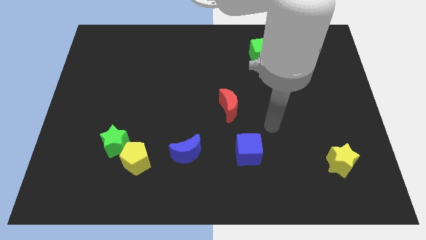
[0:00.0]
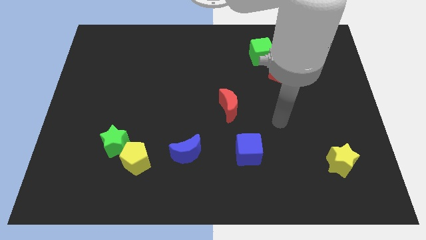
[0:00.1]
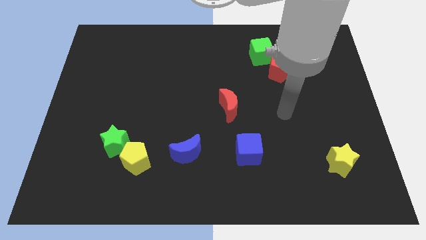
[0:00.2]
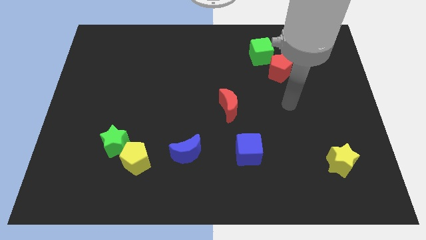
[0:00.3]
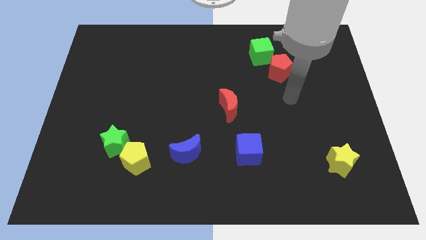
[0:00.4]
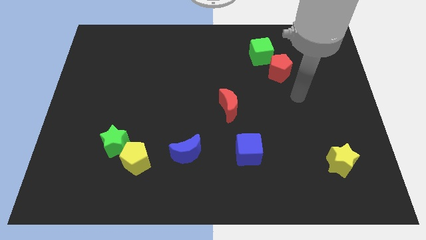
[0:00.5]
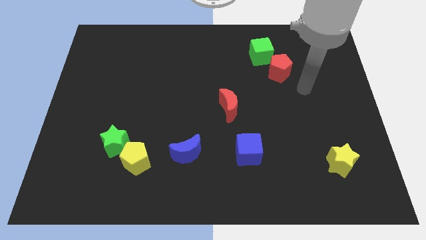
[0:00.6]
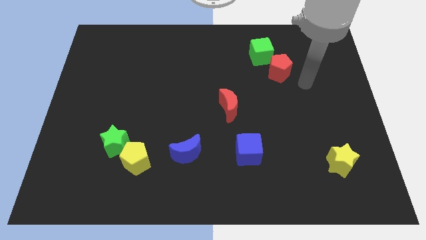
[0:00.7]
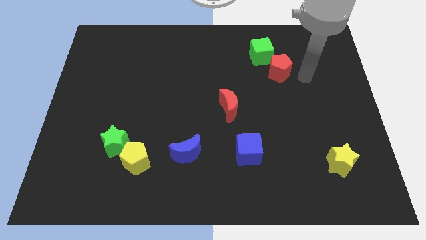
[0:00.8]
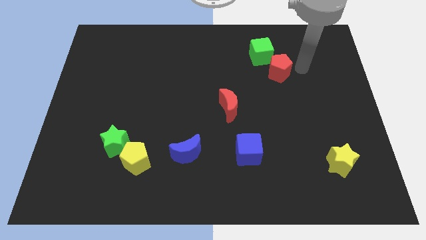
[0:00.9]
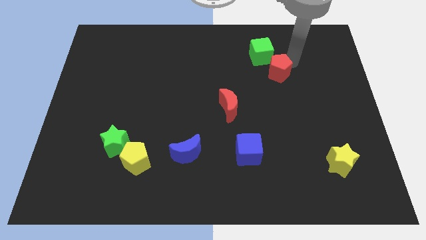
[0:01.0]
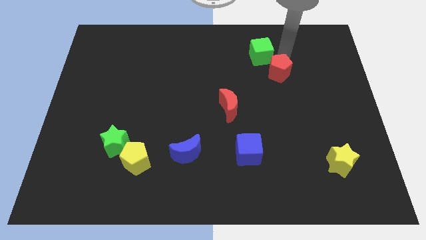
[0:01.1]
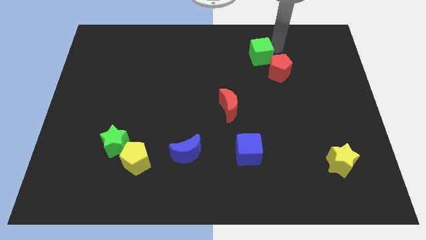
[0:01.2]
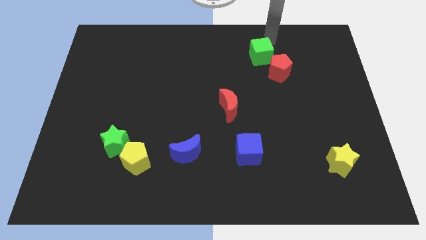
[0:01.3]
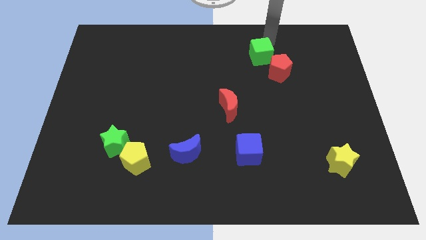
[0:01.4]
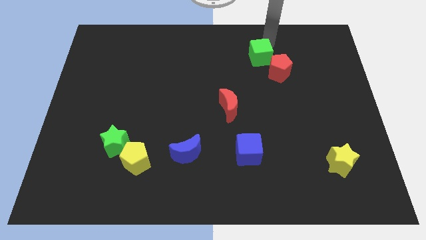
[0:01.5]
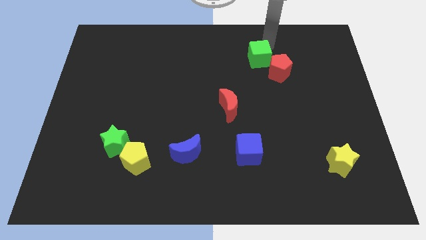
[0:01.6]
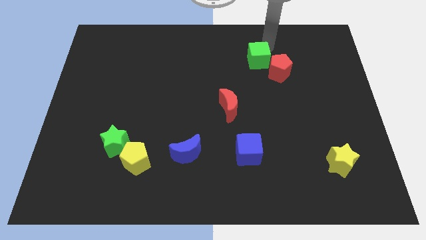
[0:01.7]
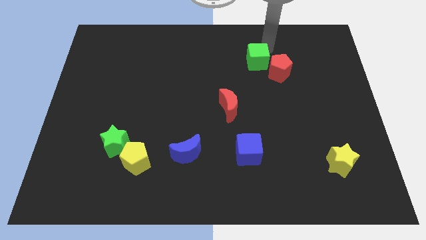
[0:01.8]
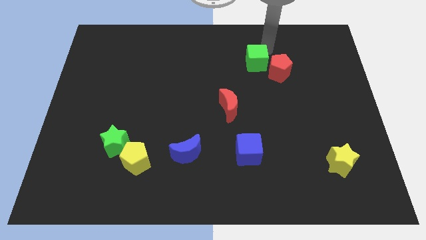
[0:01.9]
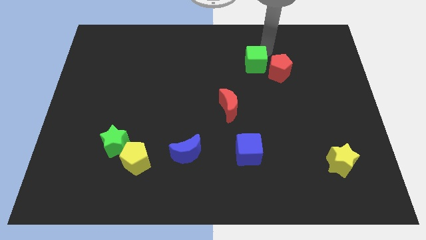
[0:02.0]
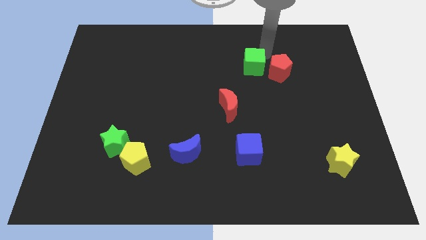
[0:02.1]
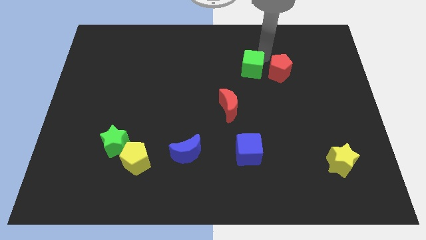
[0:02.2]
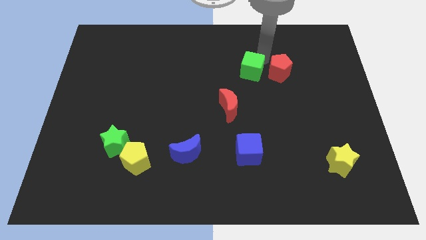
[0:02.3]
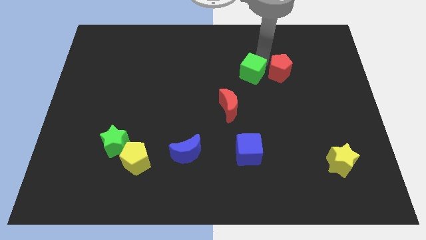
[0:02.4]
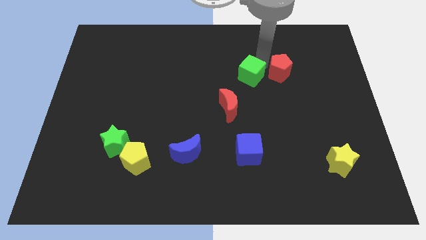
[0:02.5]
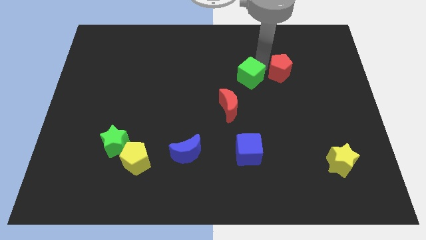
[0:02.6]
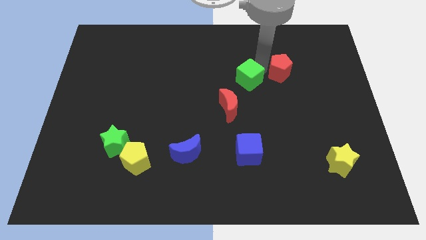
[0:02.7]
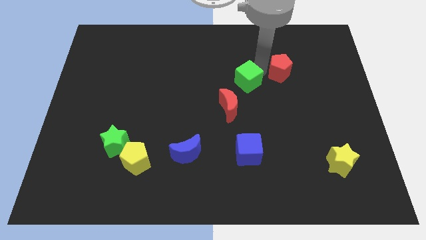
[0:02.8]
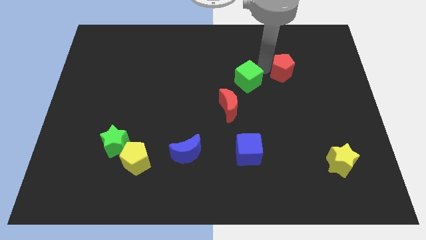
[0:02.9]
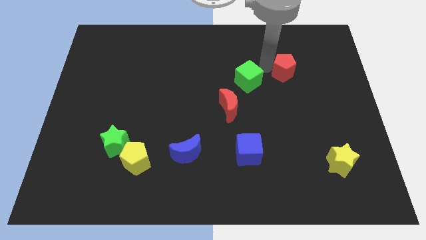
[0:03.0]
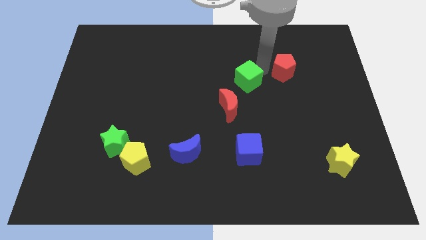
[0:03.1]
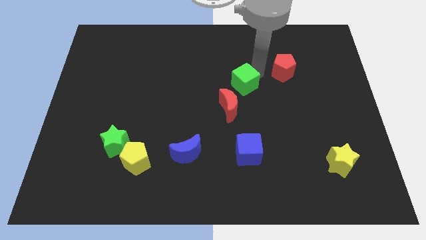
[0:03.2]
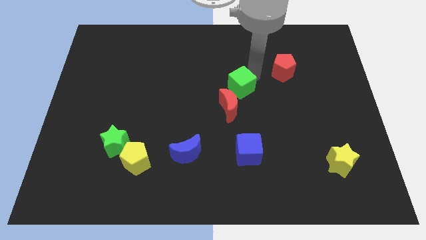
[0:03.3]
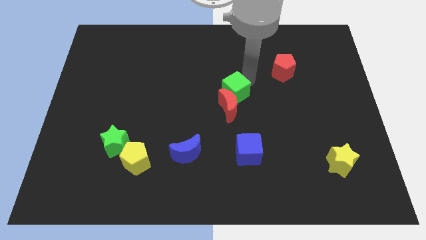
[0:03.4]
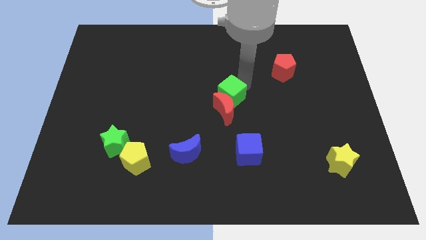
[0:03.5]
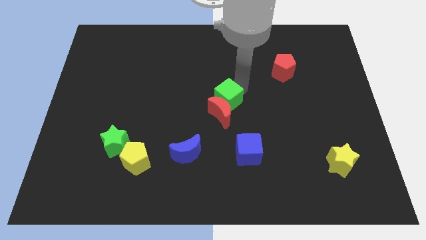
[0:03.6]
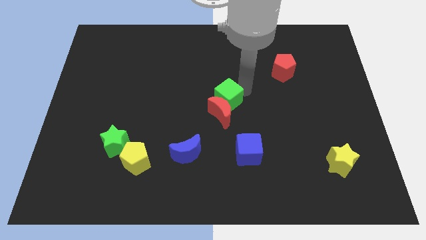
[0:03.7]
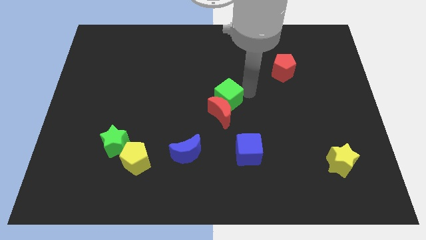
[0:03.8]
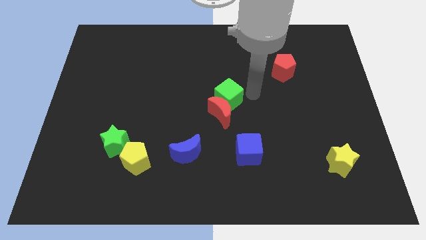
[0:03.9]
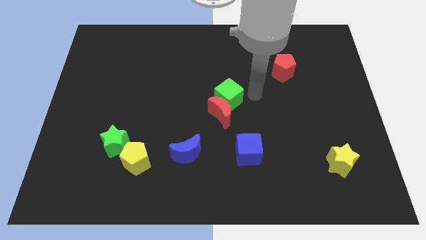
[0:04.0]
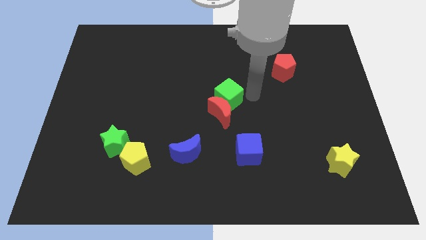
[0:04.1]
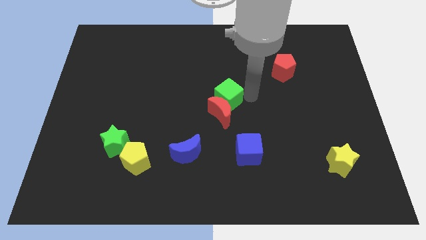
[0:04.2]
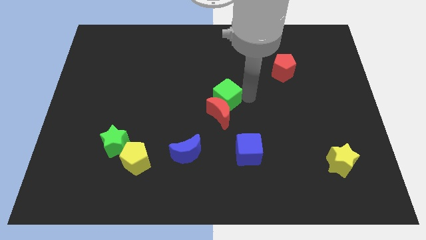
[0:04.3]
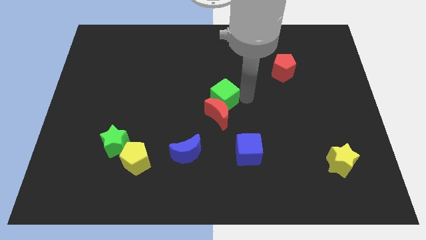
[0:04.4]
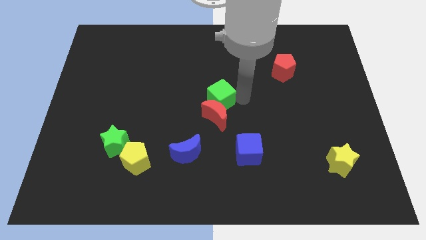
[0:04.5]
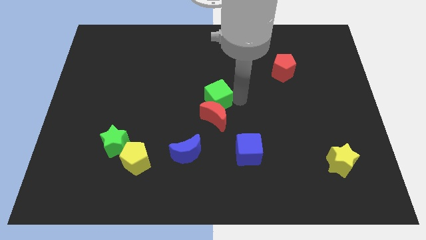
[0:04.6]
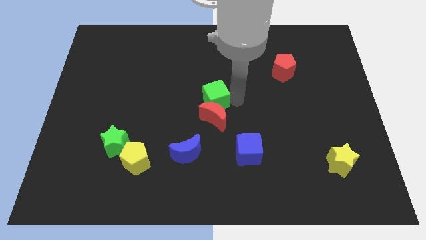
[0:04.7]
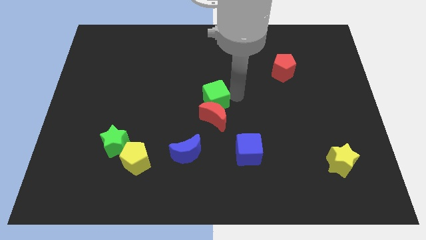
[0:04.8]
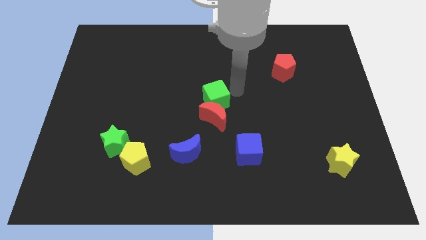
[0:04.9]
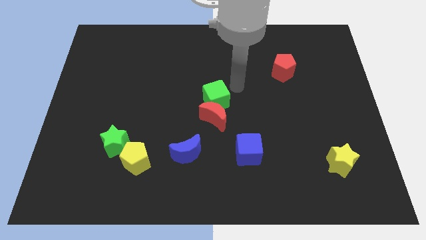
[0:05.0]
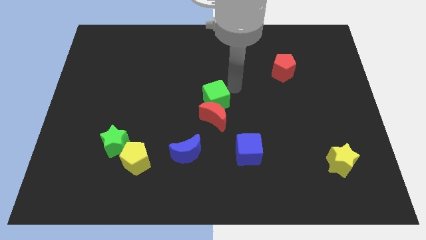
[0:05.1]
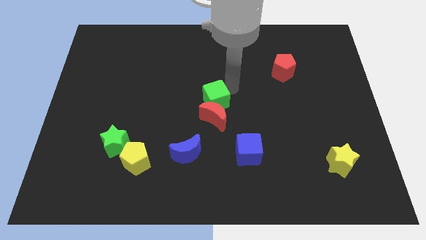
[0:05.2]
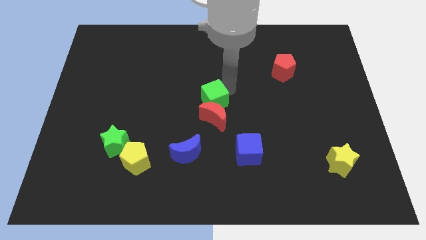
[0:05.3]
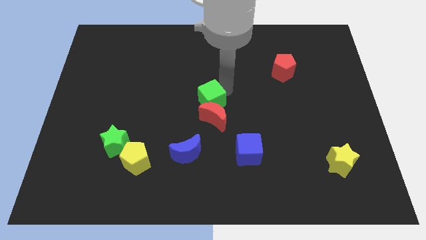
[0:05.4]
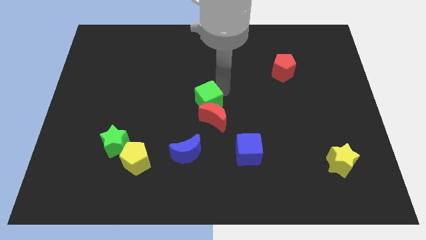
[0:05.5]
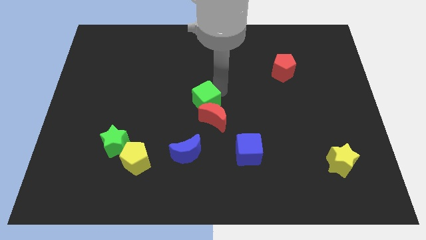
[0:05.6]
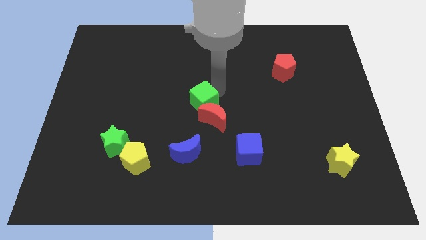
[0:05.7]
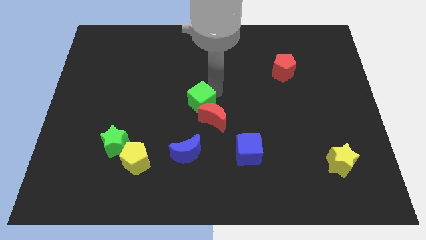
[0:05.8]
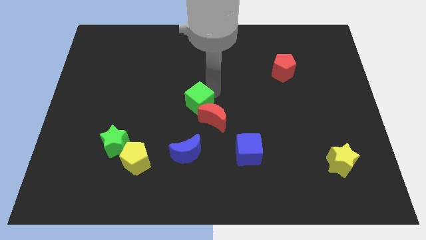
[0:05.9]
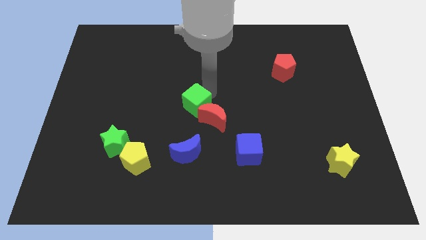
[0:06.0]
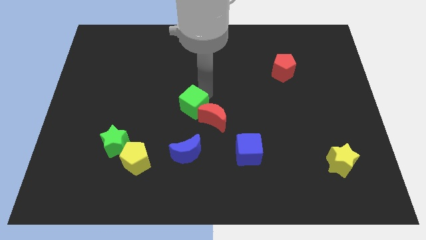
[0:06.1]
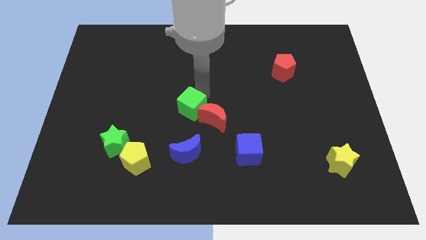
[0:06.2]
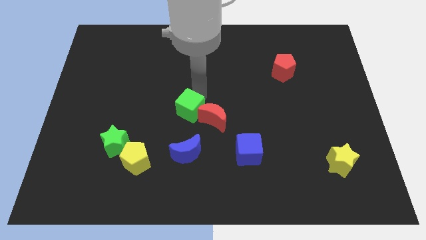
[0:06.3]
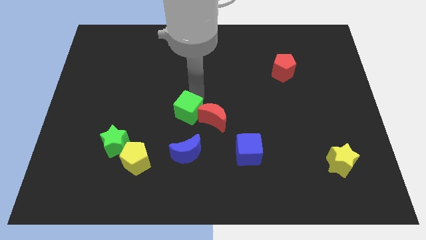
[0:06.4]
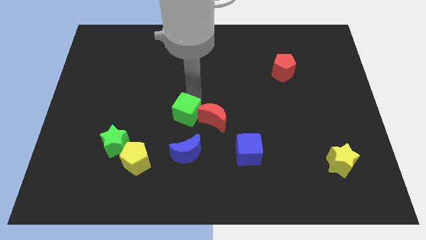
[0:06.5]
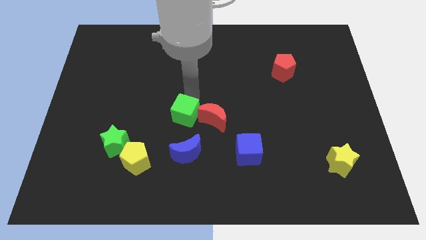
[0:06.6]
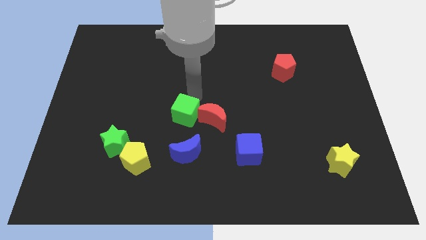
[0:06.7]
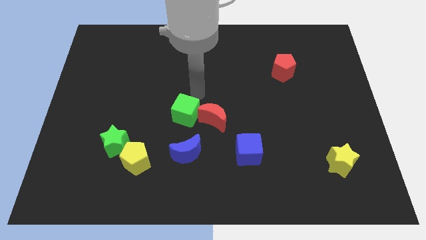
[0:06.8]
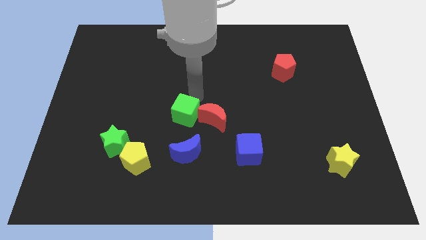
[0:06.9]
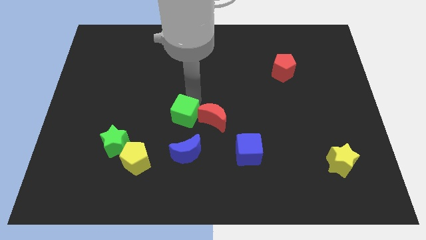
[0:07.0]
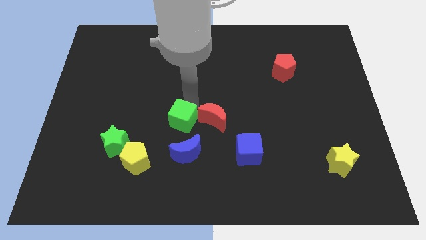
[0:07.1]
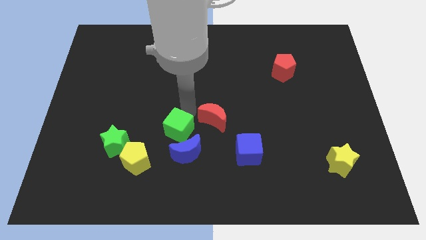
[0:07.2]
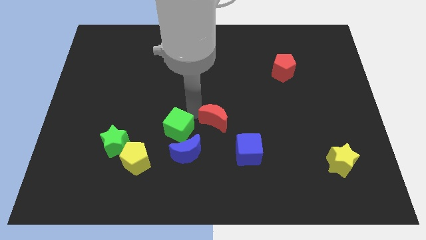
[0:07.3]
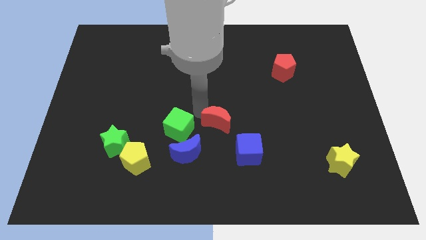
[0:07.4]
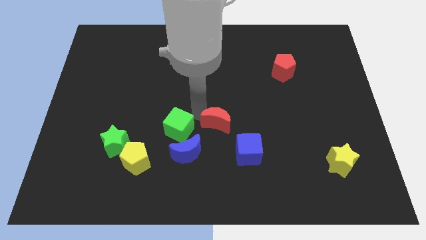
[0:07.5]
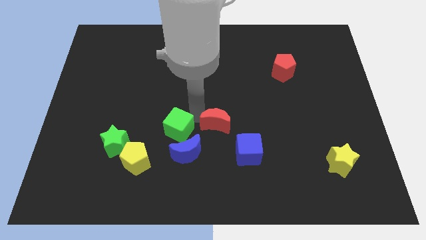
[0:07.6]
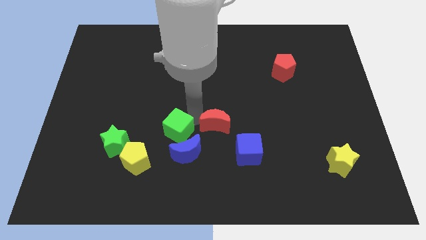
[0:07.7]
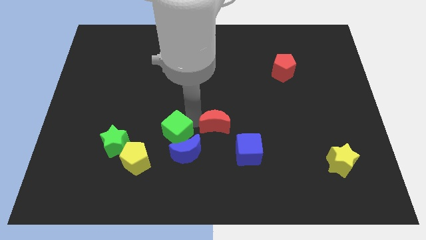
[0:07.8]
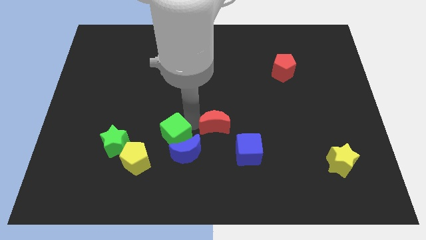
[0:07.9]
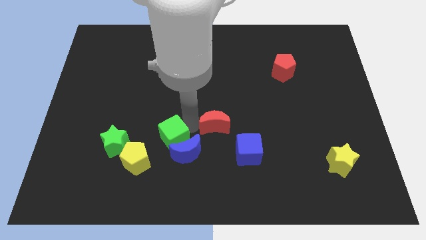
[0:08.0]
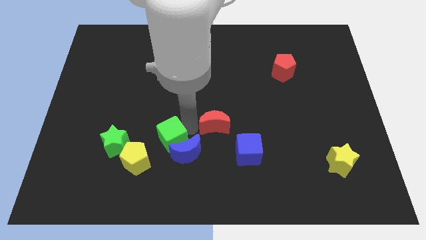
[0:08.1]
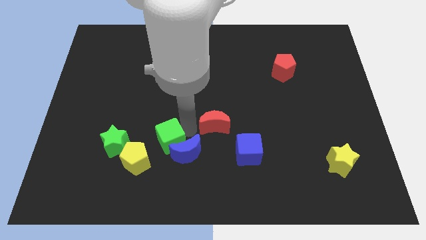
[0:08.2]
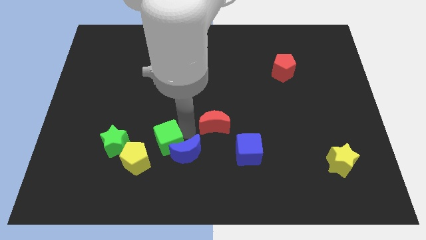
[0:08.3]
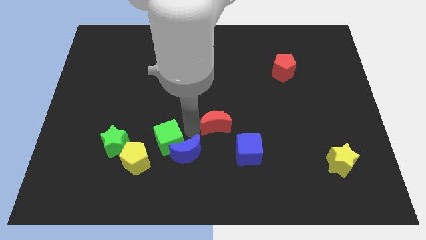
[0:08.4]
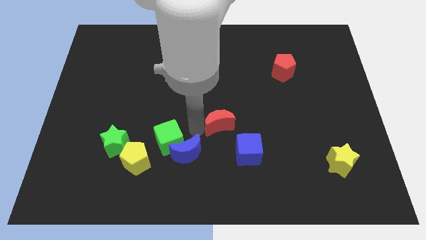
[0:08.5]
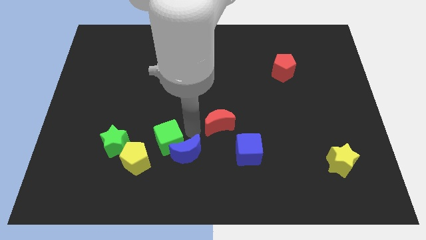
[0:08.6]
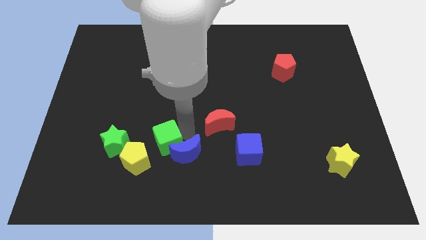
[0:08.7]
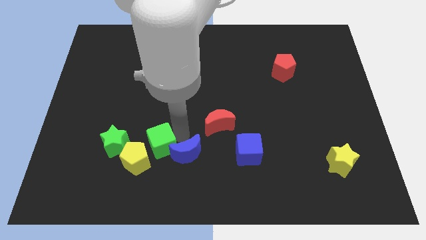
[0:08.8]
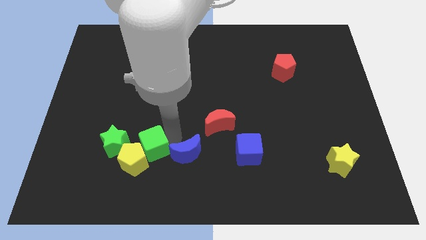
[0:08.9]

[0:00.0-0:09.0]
push the green cube close to the yellow pentagon
